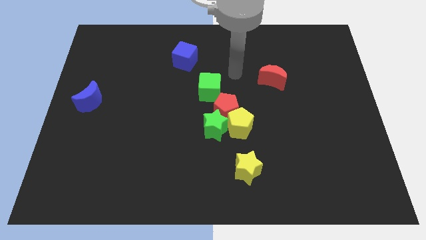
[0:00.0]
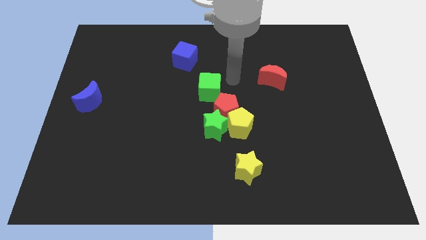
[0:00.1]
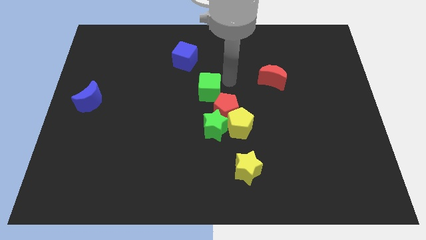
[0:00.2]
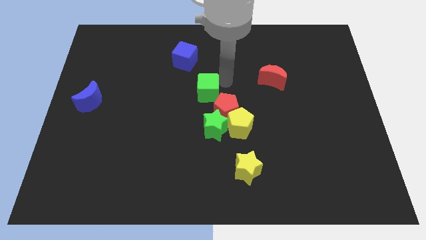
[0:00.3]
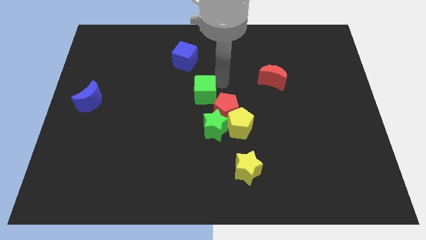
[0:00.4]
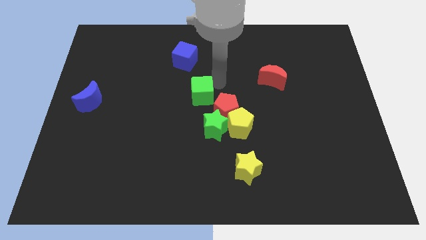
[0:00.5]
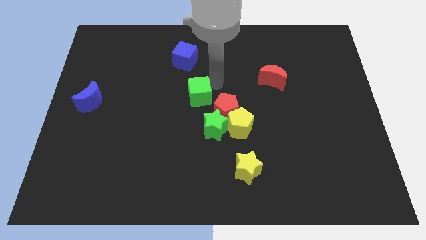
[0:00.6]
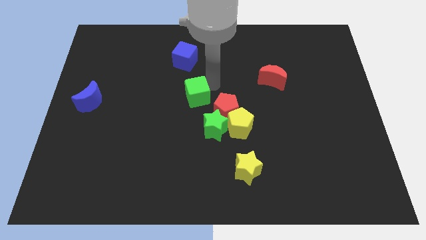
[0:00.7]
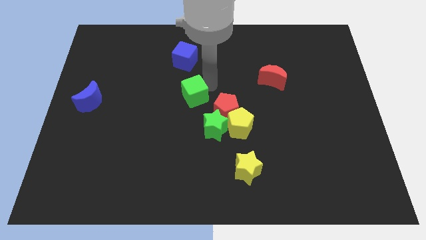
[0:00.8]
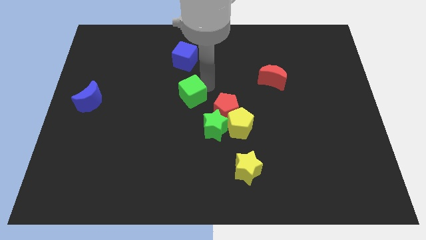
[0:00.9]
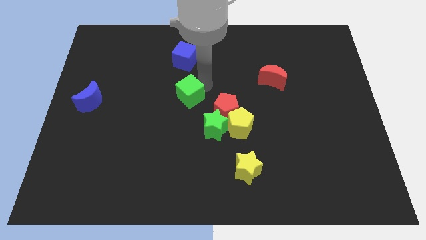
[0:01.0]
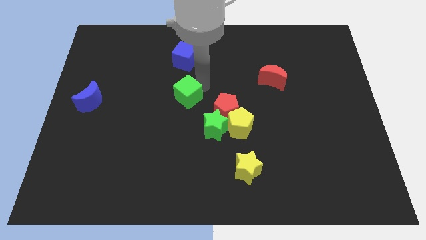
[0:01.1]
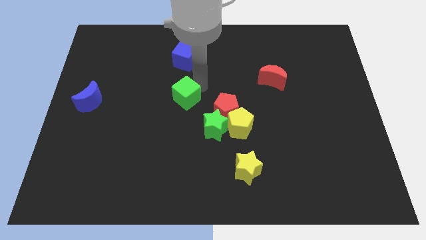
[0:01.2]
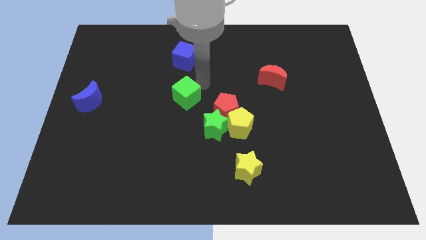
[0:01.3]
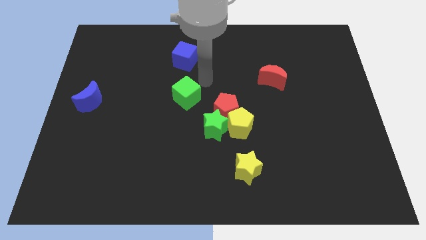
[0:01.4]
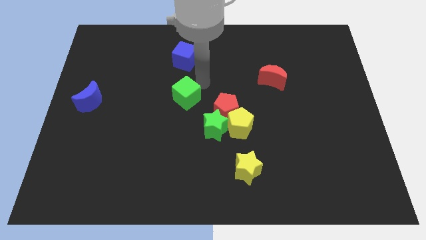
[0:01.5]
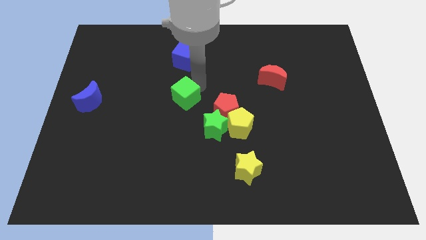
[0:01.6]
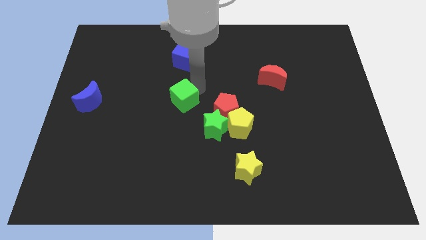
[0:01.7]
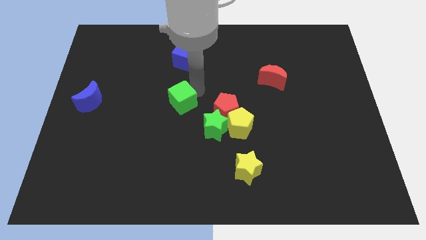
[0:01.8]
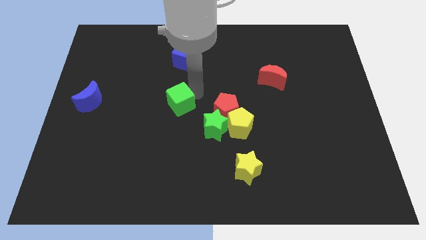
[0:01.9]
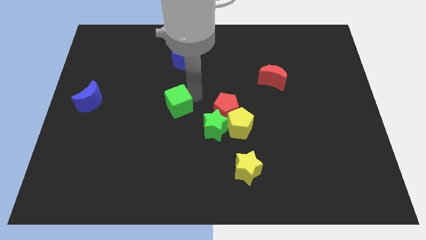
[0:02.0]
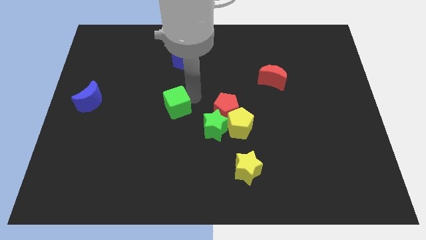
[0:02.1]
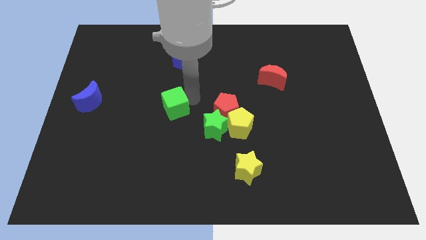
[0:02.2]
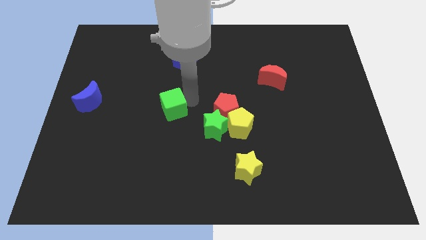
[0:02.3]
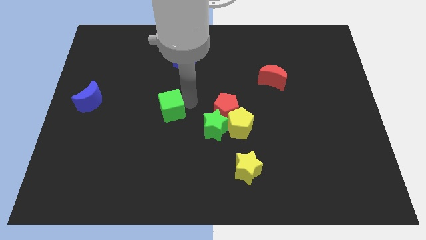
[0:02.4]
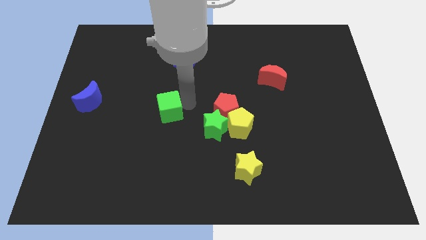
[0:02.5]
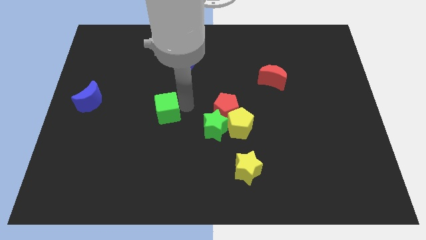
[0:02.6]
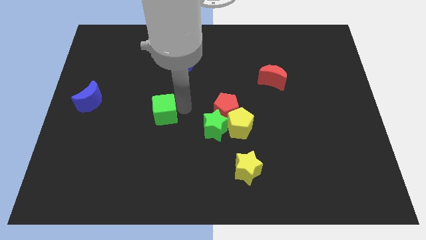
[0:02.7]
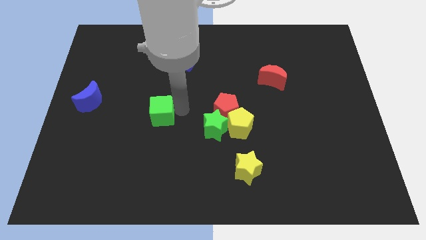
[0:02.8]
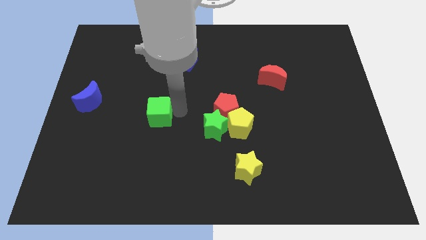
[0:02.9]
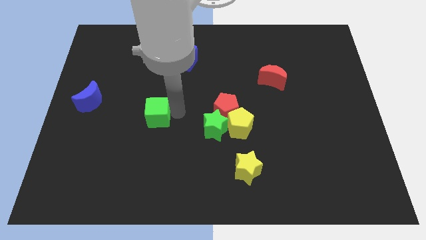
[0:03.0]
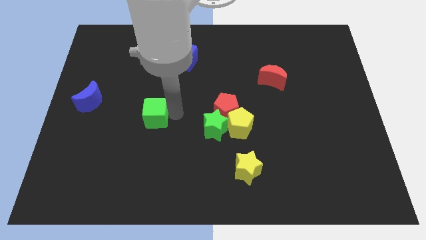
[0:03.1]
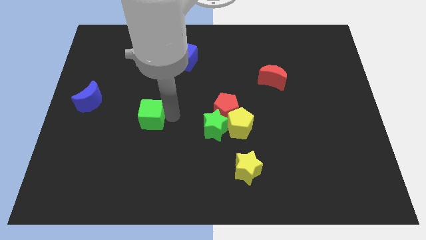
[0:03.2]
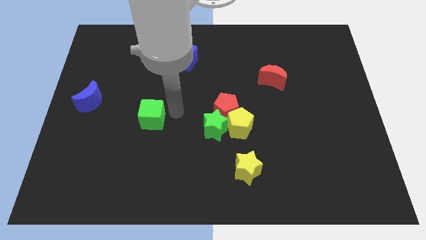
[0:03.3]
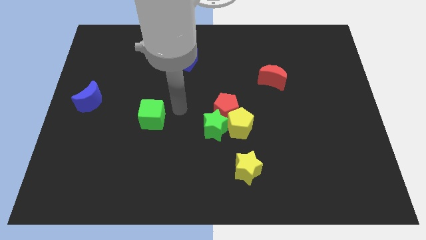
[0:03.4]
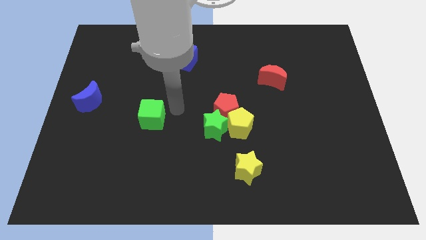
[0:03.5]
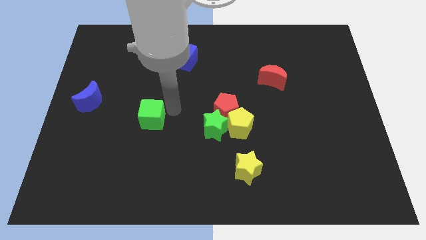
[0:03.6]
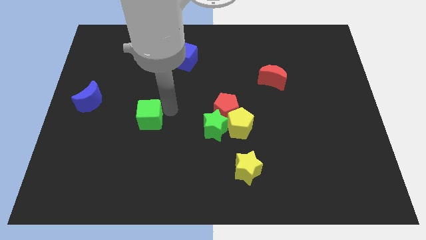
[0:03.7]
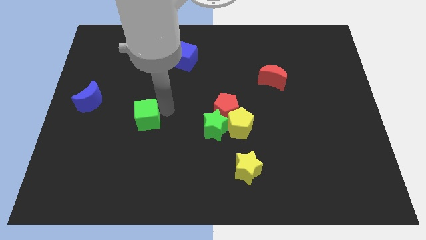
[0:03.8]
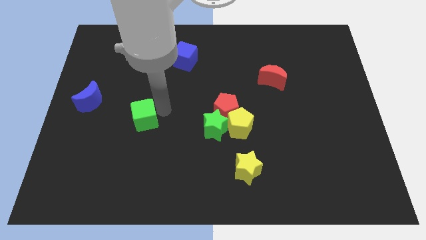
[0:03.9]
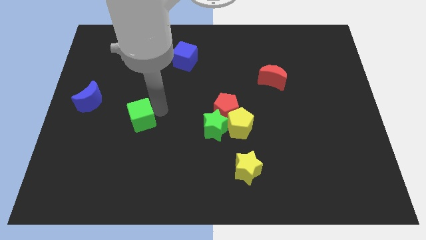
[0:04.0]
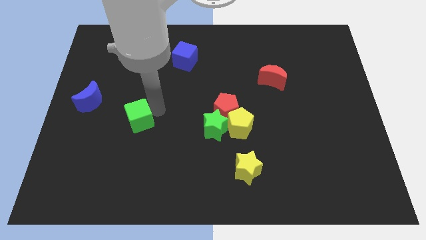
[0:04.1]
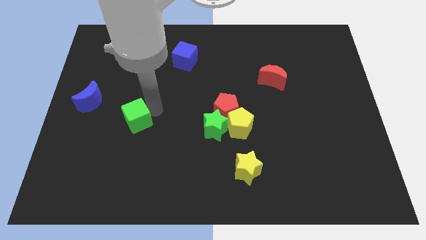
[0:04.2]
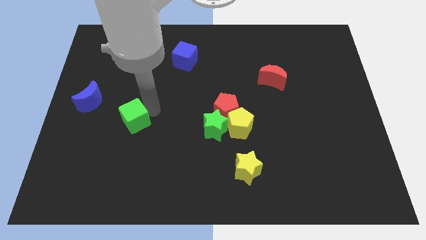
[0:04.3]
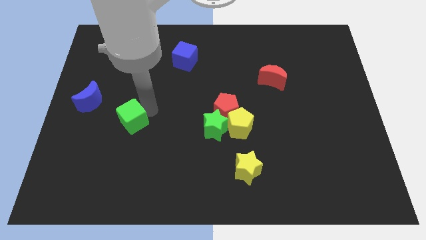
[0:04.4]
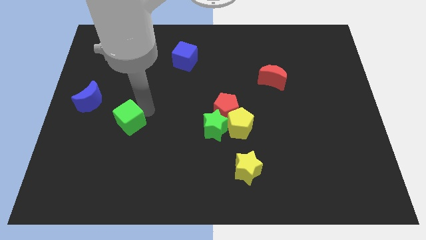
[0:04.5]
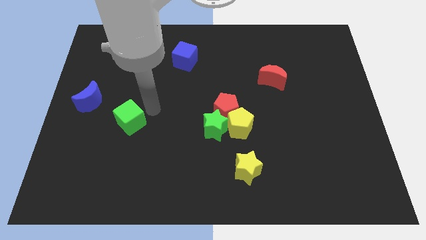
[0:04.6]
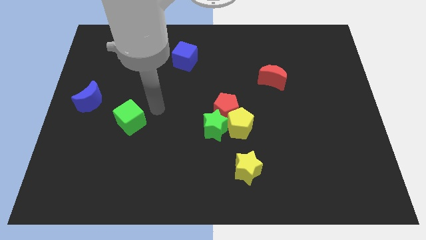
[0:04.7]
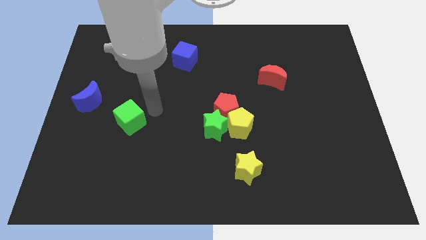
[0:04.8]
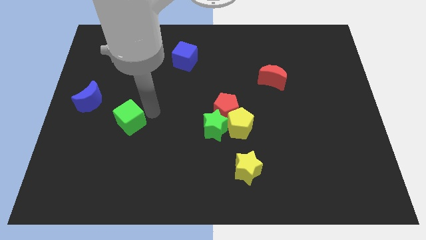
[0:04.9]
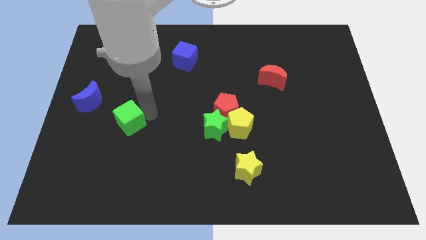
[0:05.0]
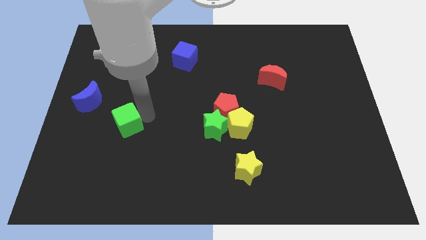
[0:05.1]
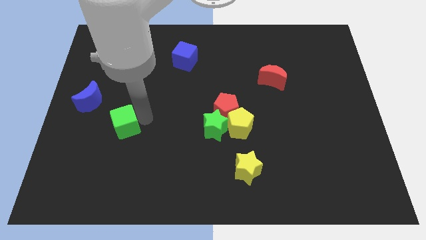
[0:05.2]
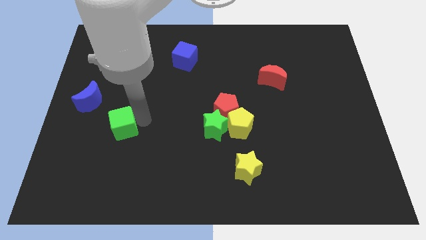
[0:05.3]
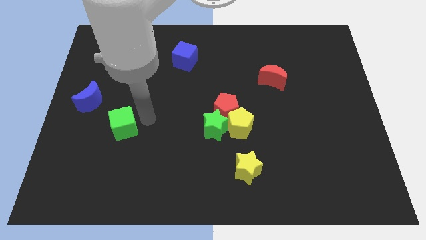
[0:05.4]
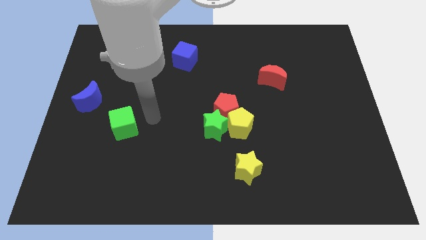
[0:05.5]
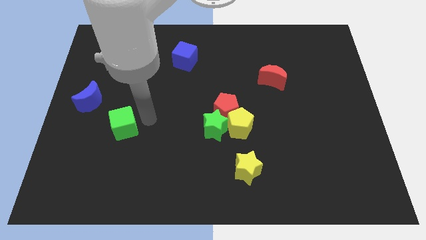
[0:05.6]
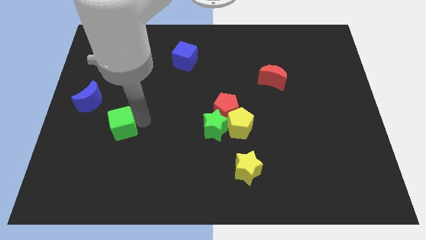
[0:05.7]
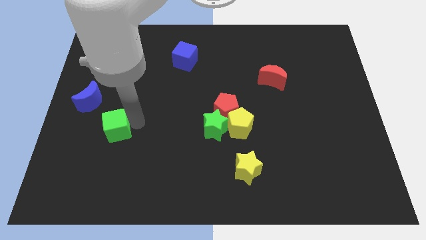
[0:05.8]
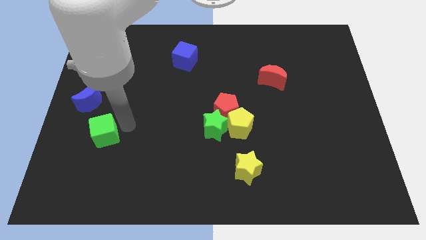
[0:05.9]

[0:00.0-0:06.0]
push the green cube below the blue moon

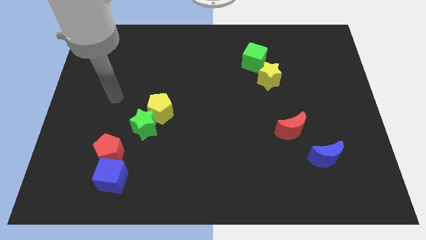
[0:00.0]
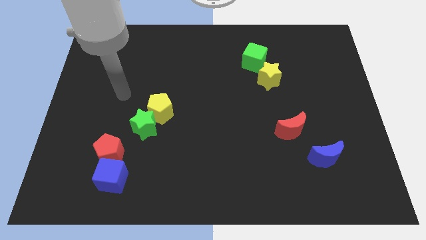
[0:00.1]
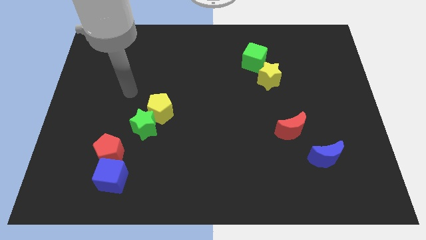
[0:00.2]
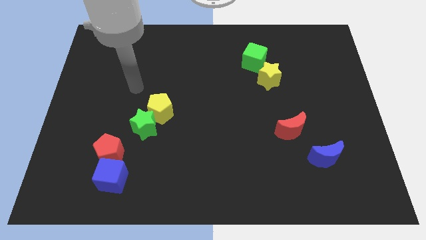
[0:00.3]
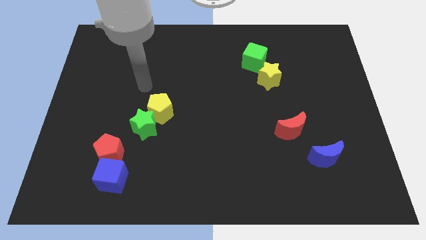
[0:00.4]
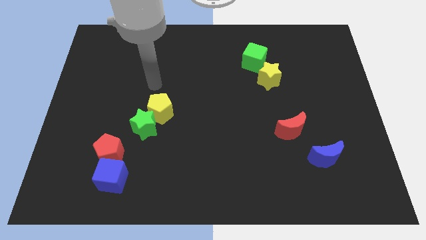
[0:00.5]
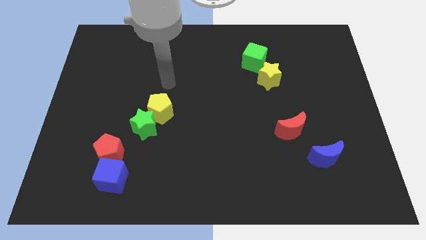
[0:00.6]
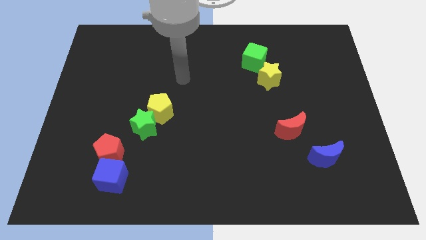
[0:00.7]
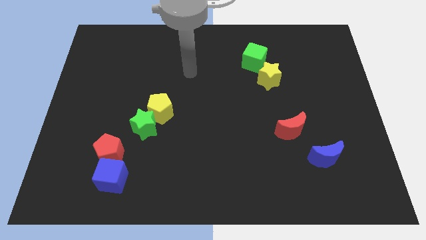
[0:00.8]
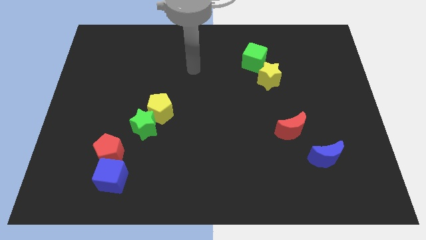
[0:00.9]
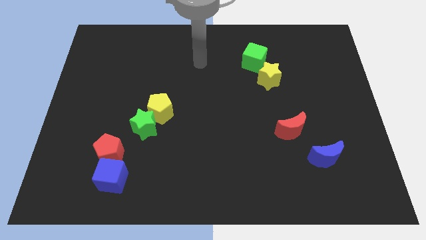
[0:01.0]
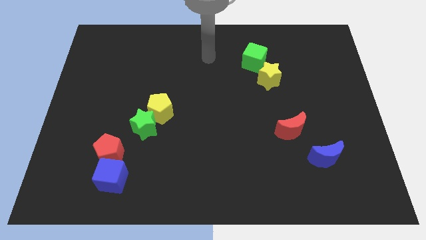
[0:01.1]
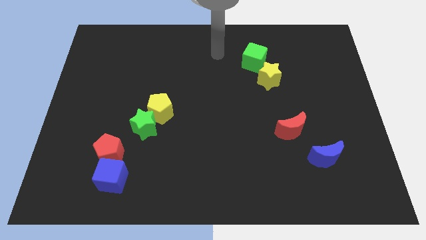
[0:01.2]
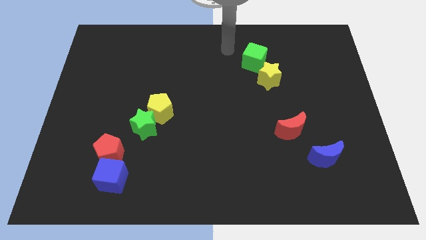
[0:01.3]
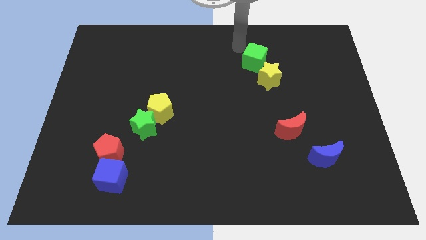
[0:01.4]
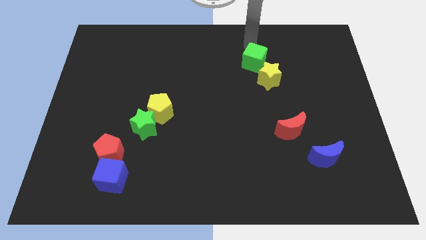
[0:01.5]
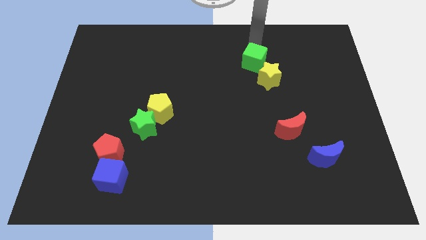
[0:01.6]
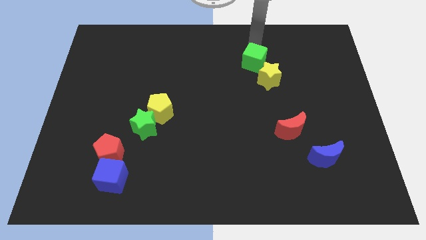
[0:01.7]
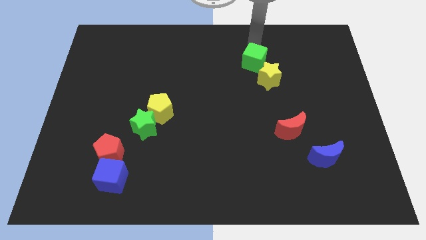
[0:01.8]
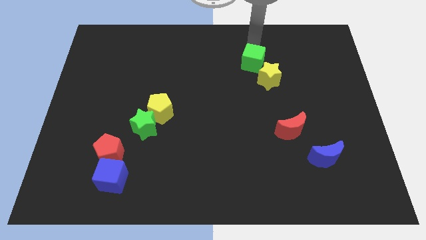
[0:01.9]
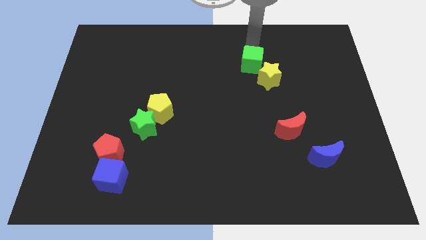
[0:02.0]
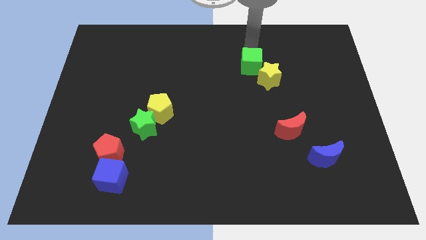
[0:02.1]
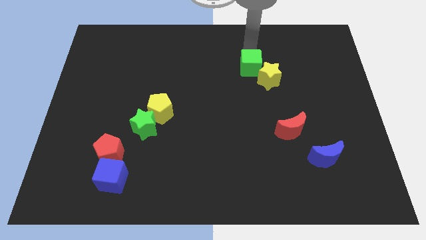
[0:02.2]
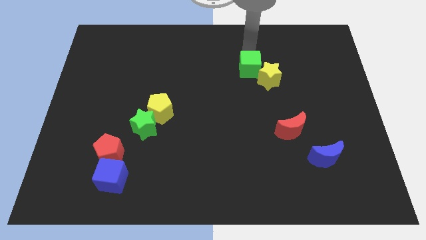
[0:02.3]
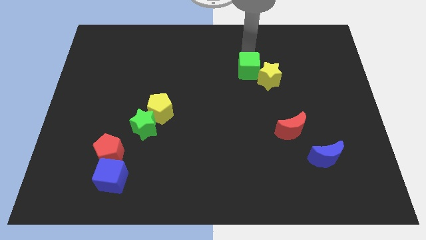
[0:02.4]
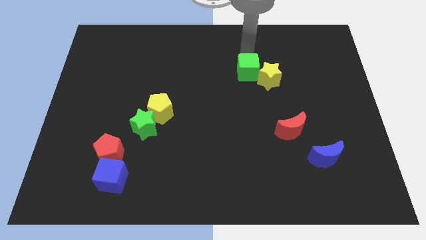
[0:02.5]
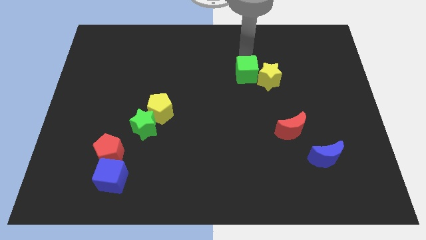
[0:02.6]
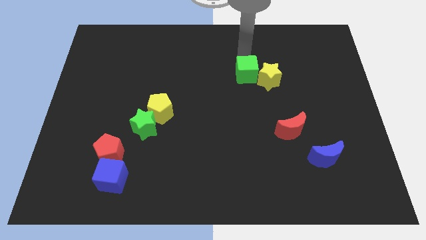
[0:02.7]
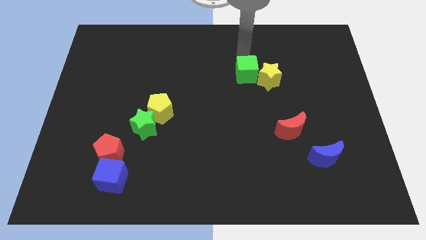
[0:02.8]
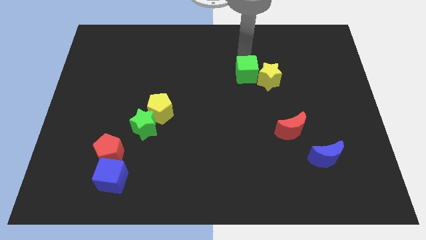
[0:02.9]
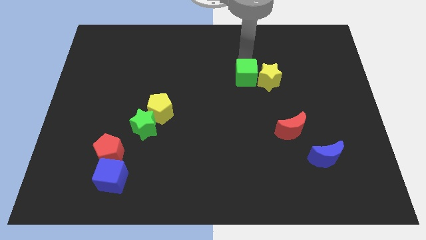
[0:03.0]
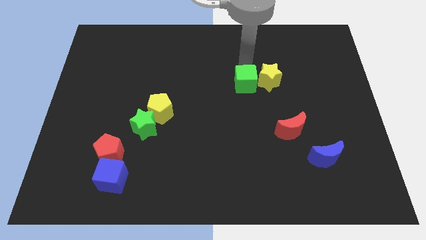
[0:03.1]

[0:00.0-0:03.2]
slide the green cube to the bottom left of the yellow star
